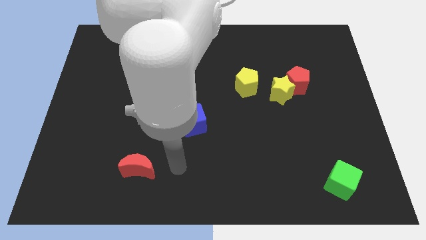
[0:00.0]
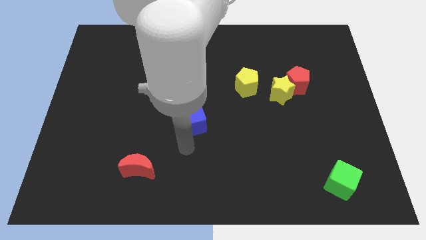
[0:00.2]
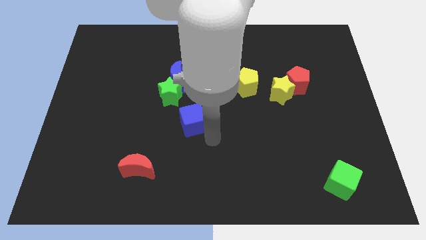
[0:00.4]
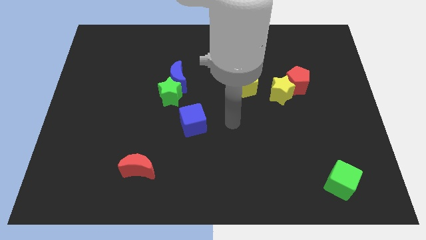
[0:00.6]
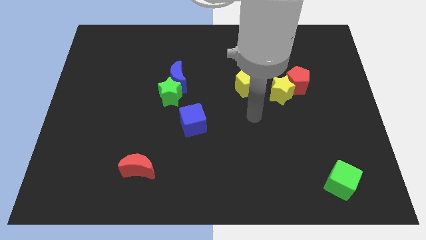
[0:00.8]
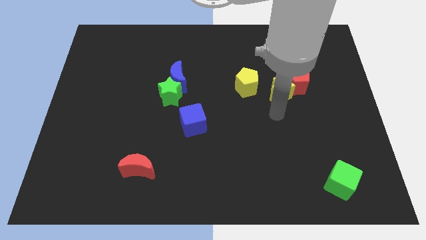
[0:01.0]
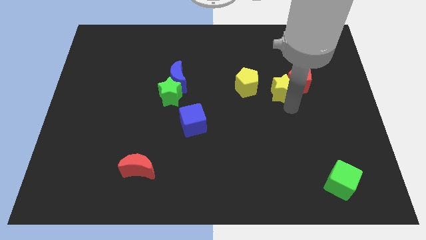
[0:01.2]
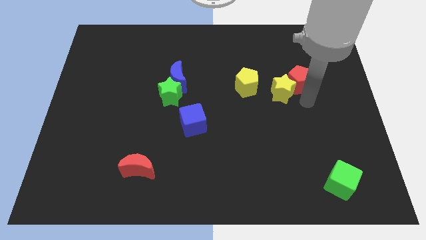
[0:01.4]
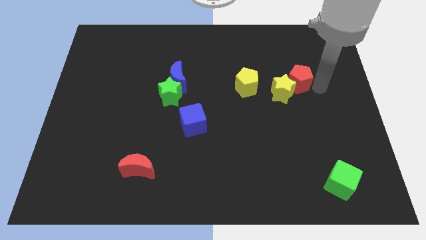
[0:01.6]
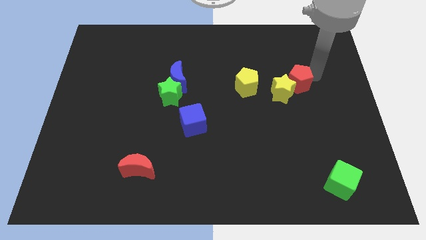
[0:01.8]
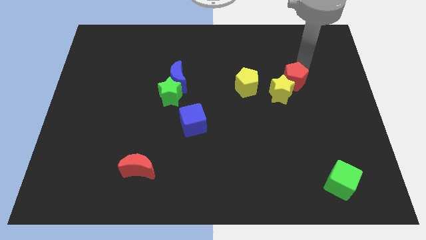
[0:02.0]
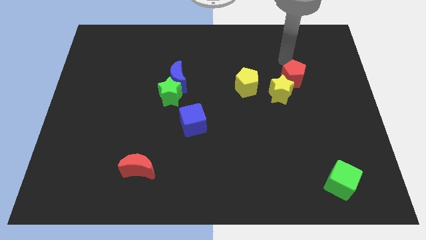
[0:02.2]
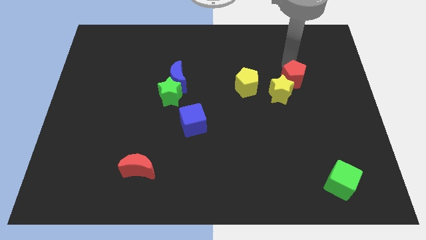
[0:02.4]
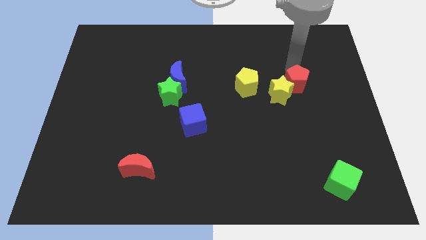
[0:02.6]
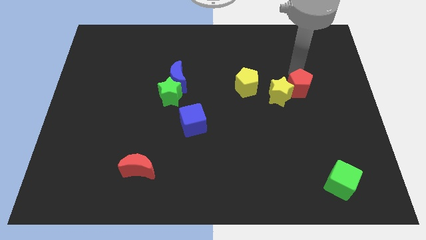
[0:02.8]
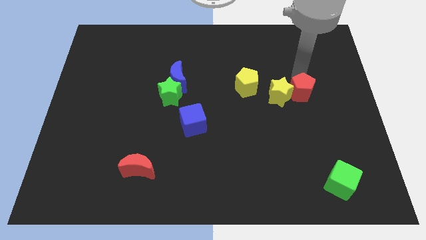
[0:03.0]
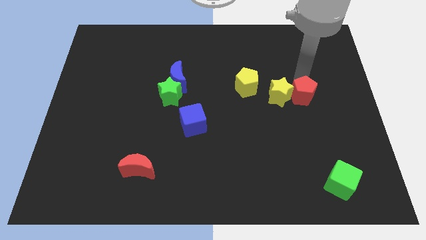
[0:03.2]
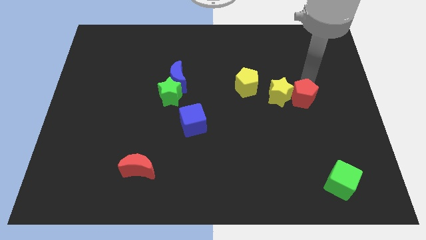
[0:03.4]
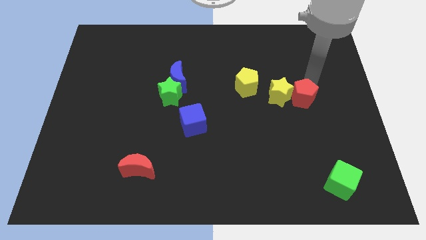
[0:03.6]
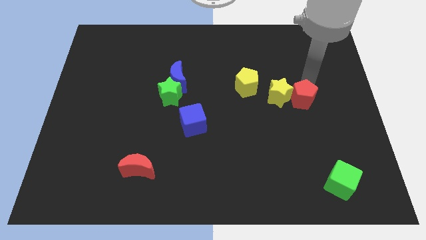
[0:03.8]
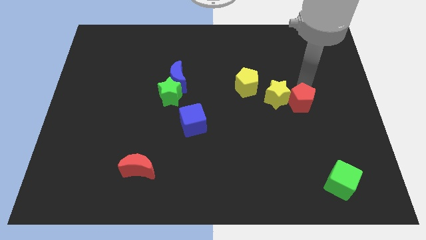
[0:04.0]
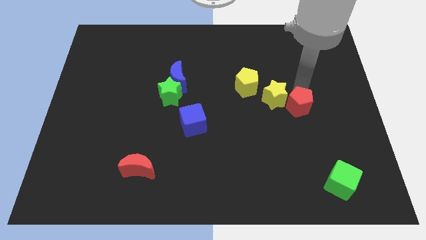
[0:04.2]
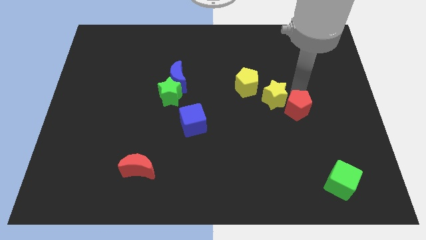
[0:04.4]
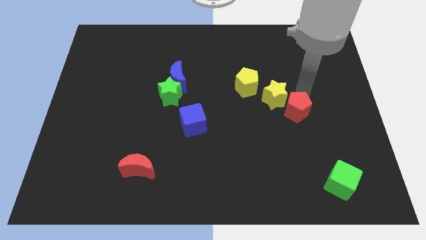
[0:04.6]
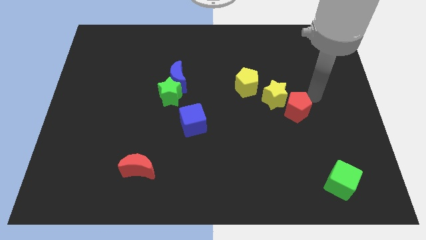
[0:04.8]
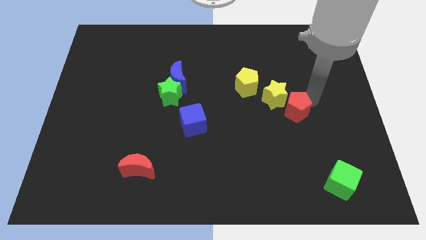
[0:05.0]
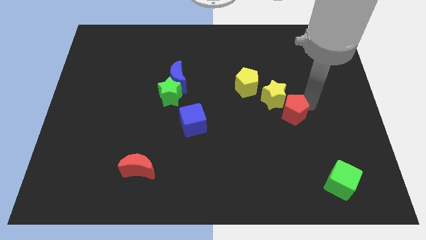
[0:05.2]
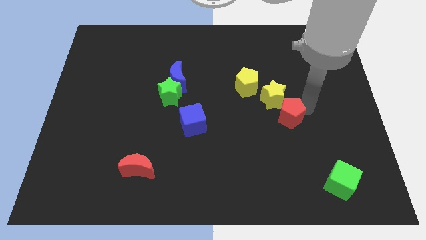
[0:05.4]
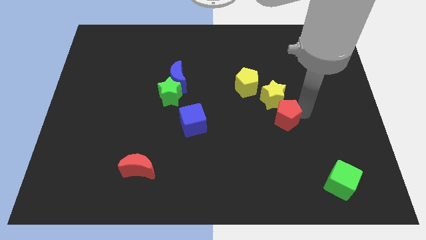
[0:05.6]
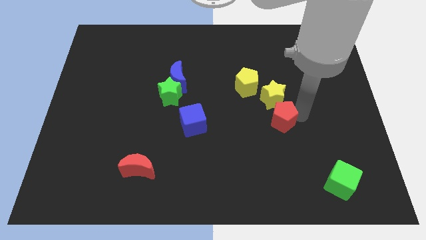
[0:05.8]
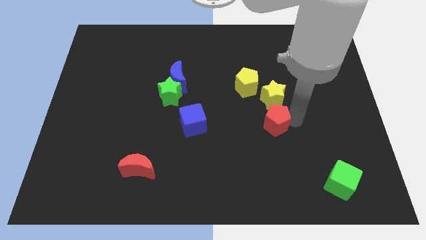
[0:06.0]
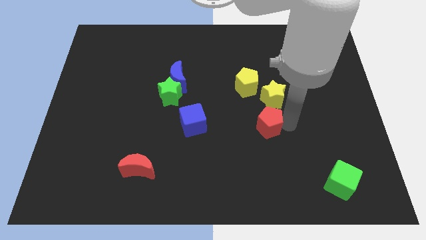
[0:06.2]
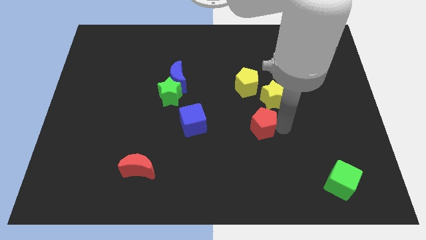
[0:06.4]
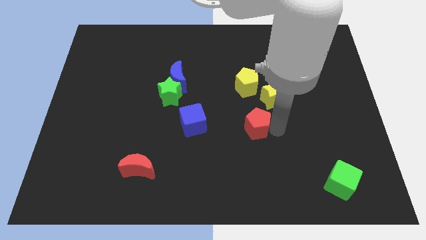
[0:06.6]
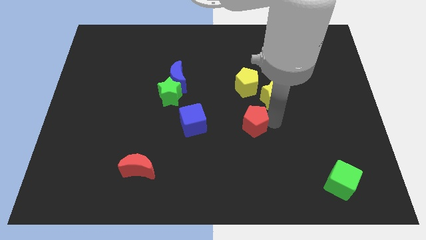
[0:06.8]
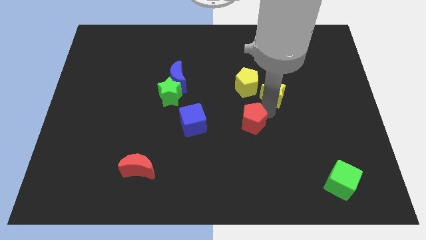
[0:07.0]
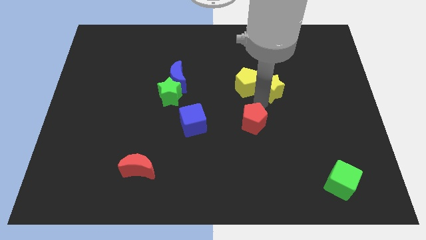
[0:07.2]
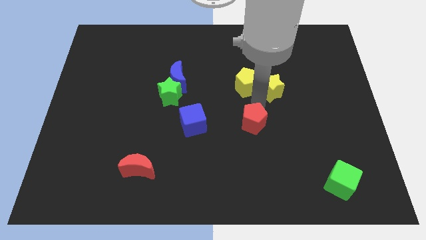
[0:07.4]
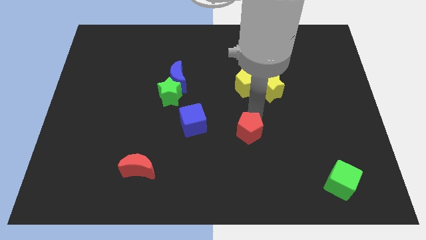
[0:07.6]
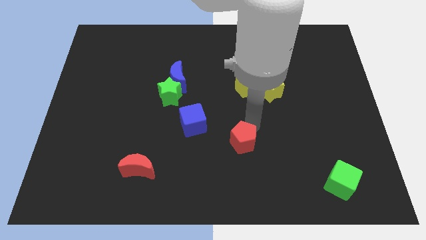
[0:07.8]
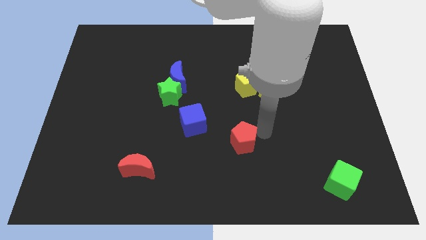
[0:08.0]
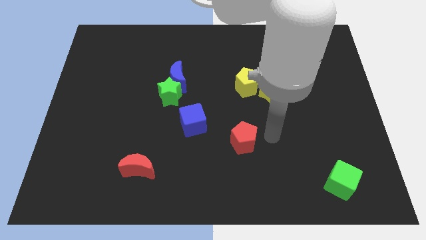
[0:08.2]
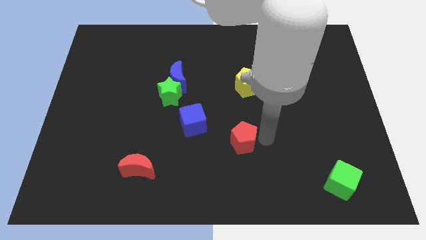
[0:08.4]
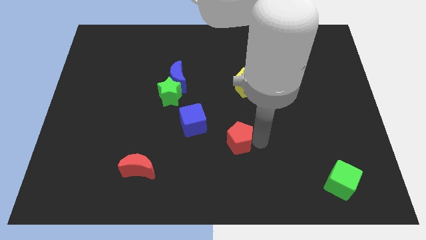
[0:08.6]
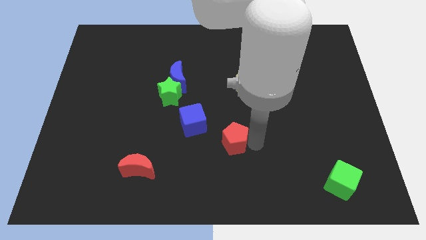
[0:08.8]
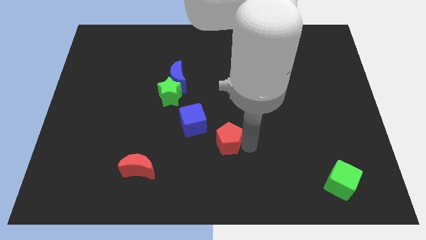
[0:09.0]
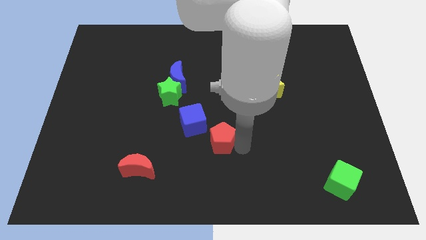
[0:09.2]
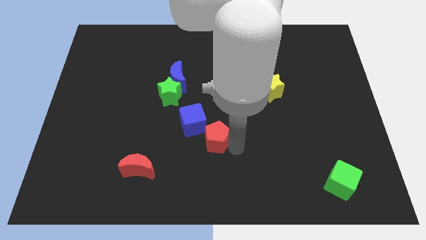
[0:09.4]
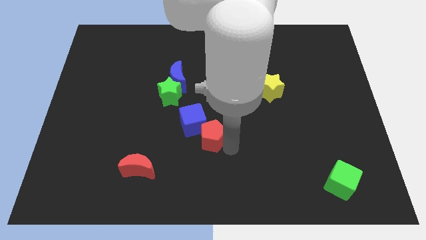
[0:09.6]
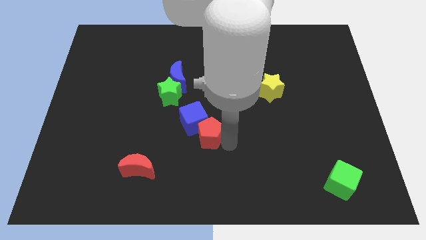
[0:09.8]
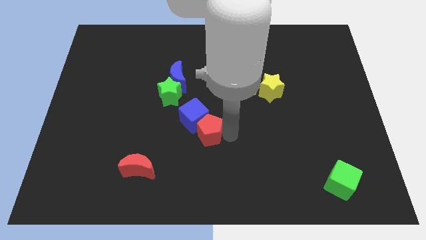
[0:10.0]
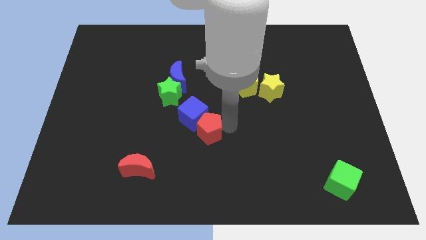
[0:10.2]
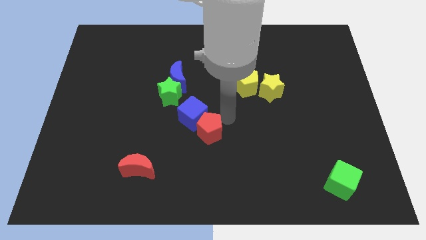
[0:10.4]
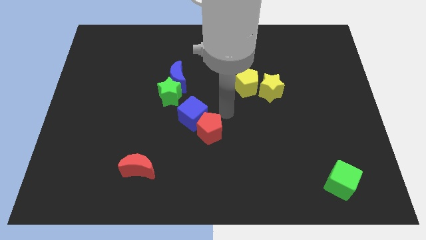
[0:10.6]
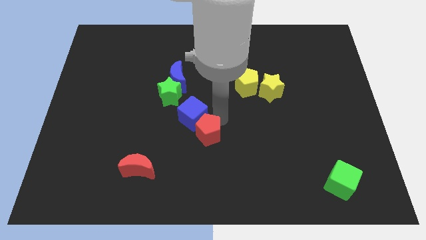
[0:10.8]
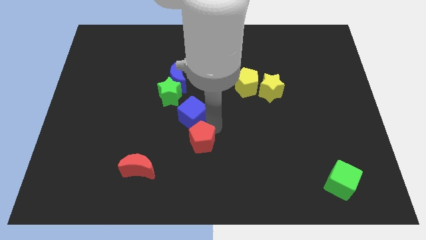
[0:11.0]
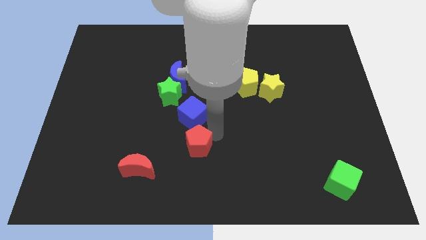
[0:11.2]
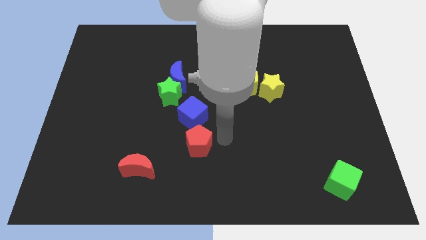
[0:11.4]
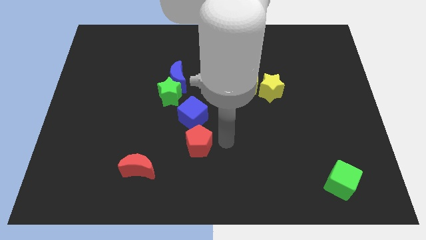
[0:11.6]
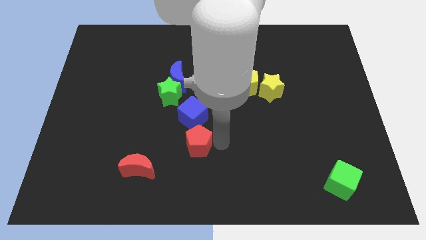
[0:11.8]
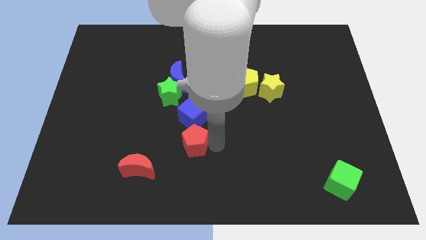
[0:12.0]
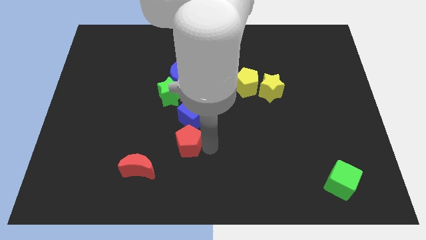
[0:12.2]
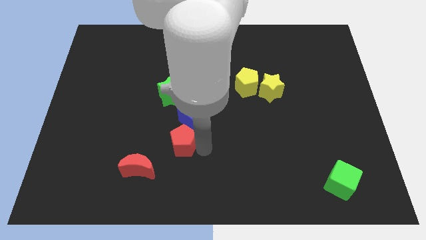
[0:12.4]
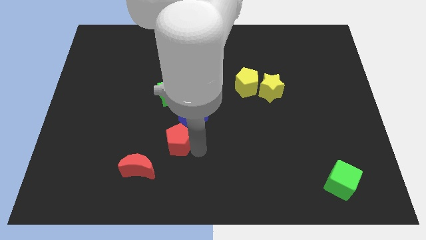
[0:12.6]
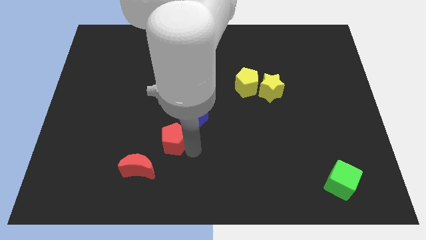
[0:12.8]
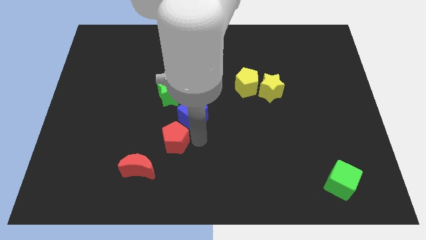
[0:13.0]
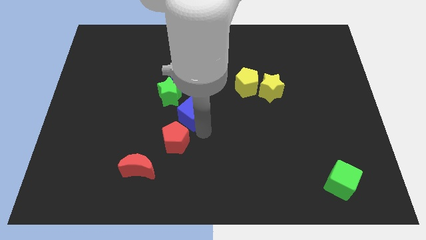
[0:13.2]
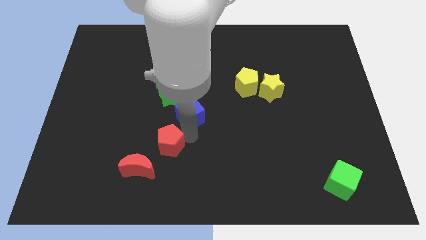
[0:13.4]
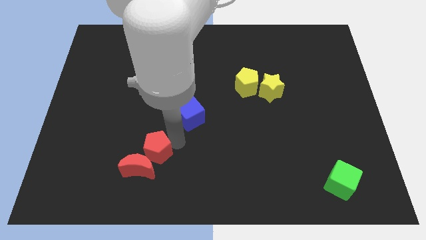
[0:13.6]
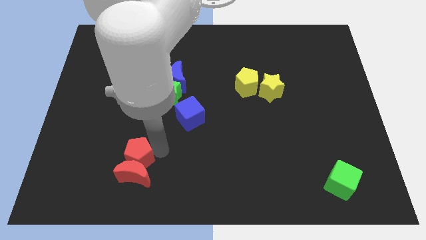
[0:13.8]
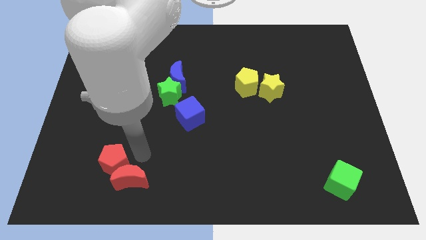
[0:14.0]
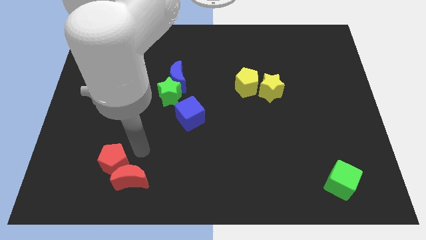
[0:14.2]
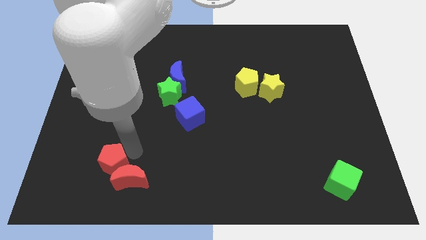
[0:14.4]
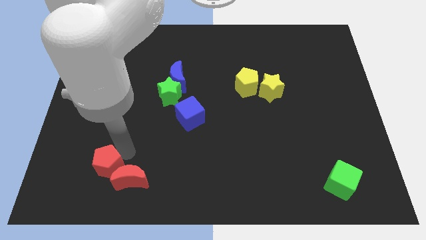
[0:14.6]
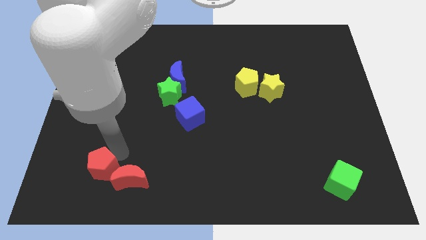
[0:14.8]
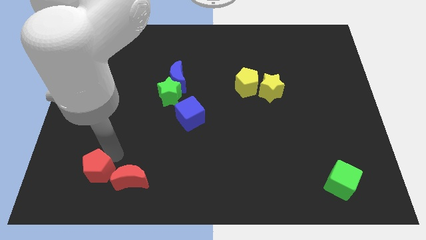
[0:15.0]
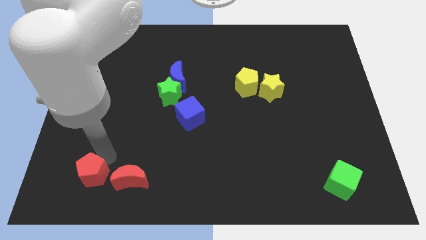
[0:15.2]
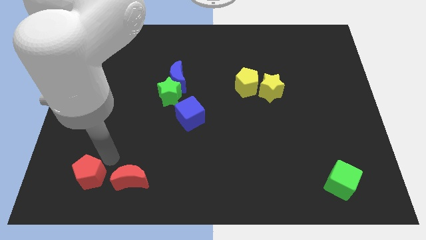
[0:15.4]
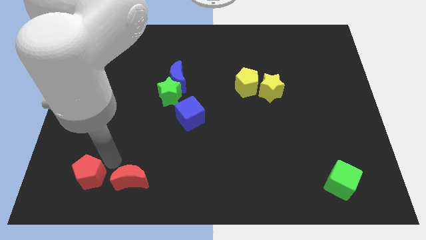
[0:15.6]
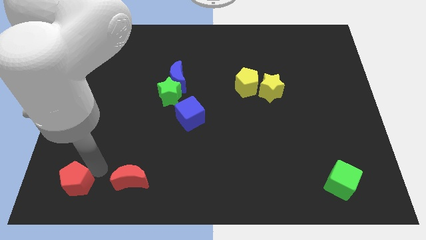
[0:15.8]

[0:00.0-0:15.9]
push the red pentagon to the bottom left
